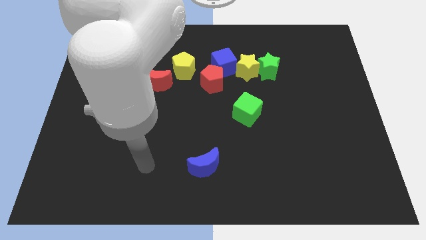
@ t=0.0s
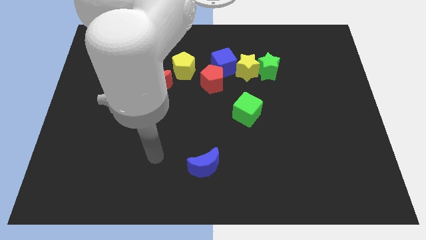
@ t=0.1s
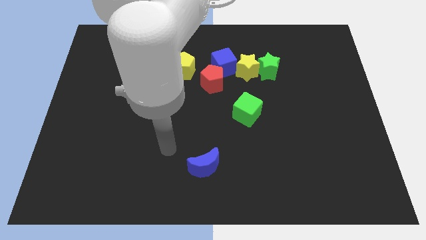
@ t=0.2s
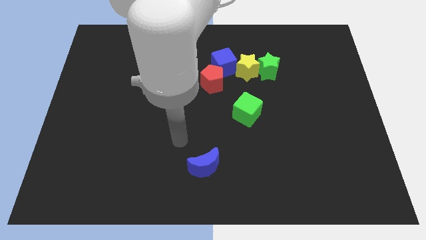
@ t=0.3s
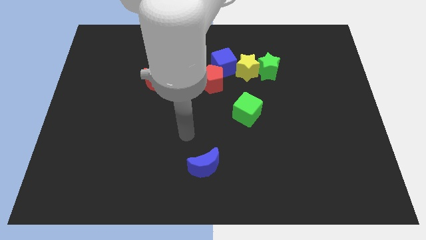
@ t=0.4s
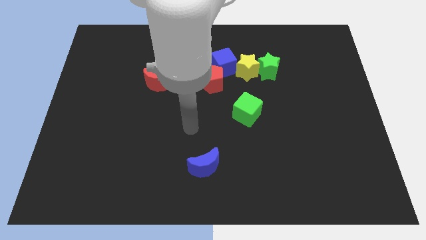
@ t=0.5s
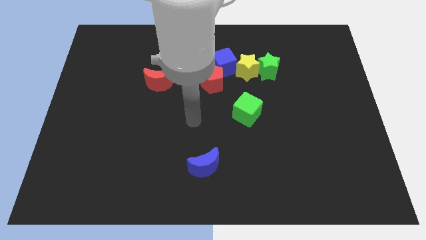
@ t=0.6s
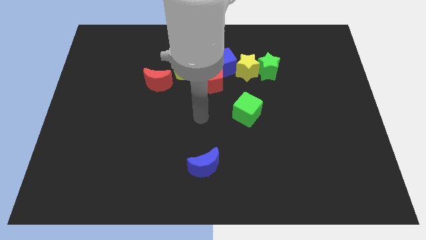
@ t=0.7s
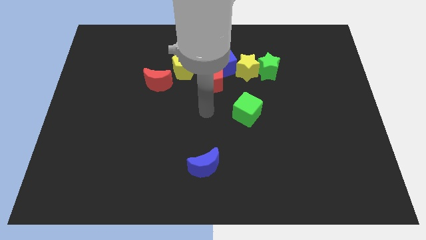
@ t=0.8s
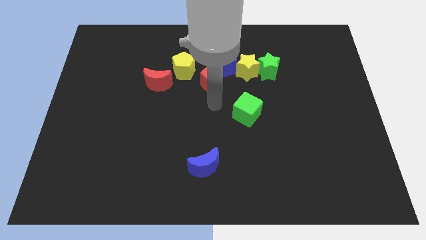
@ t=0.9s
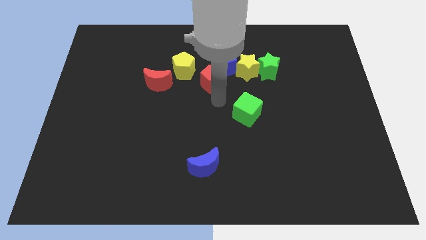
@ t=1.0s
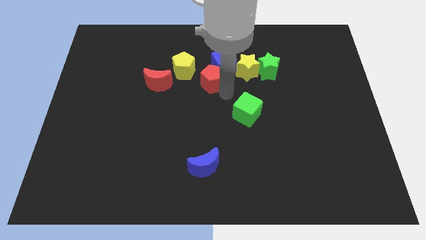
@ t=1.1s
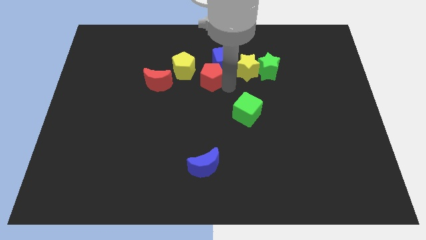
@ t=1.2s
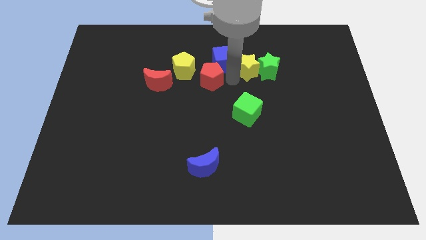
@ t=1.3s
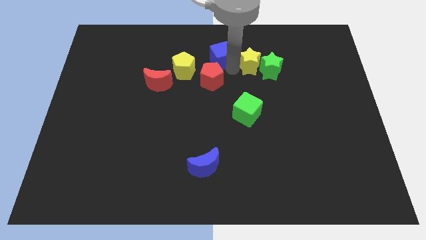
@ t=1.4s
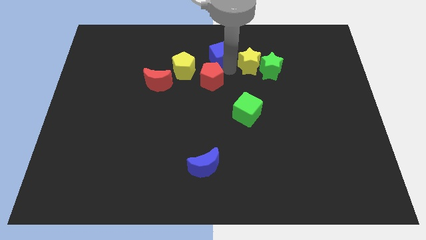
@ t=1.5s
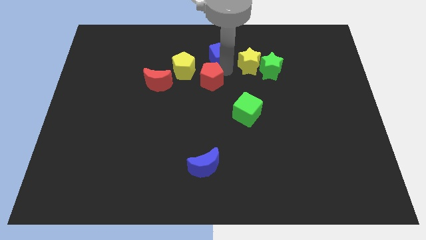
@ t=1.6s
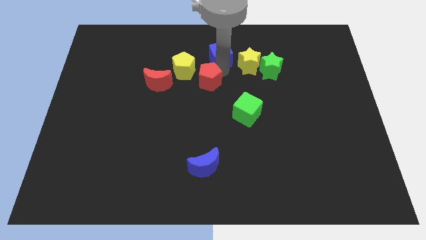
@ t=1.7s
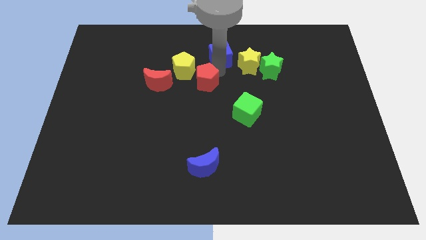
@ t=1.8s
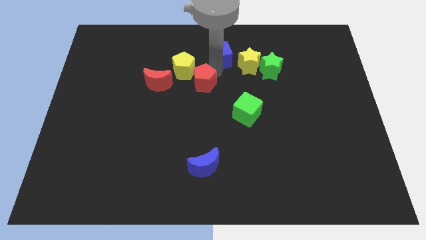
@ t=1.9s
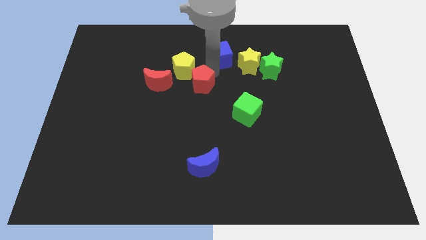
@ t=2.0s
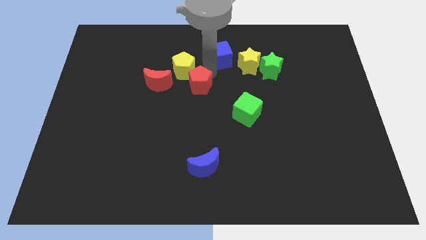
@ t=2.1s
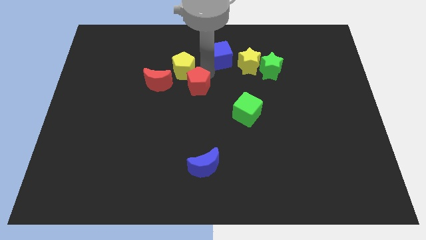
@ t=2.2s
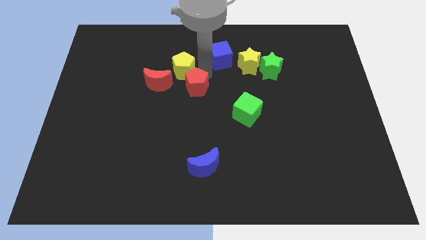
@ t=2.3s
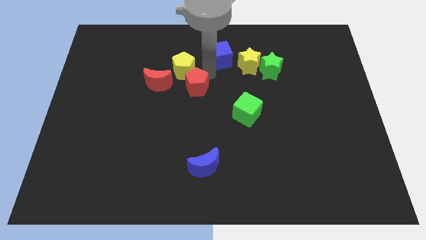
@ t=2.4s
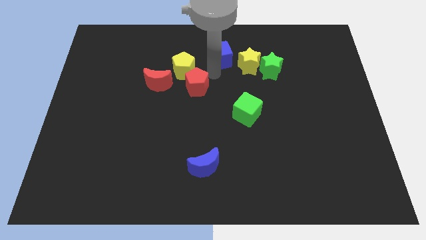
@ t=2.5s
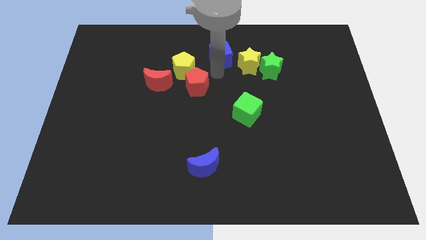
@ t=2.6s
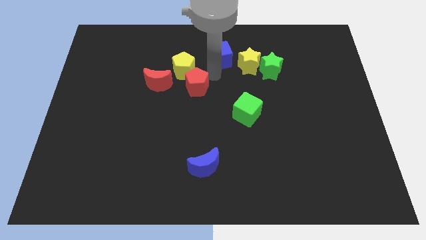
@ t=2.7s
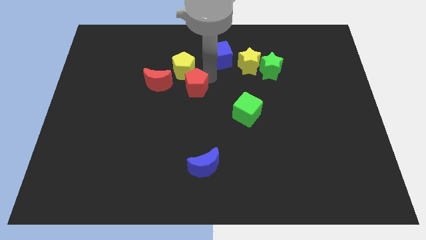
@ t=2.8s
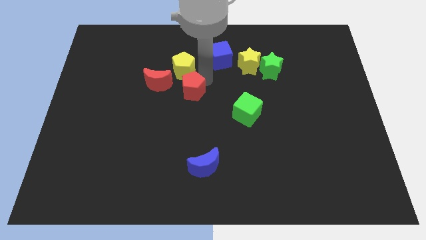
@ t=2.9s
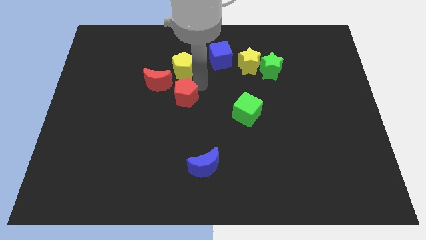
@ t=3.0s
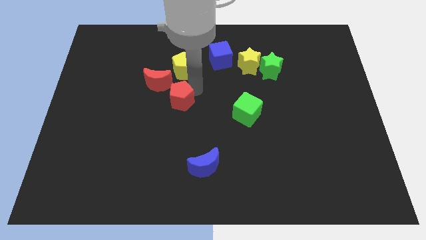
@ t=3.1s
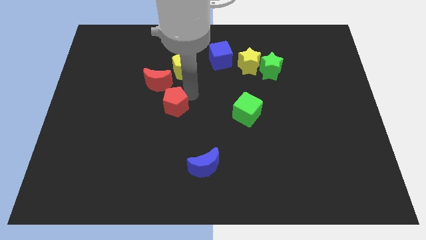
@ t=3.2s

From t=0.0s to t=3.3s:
slightly move the red pentagon to the left

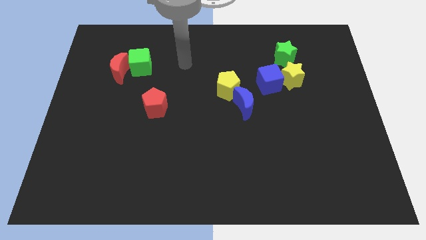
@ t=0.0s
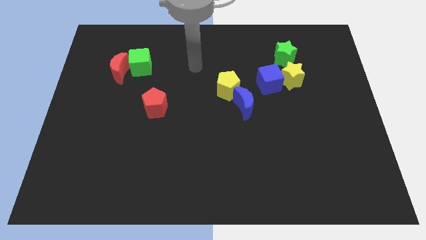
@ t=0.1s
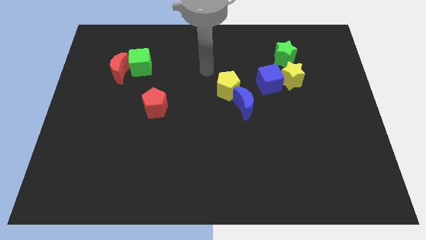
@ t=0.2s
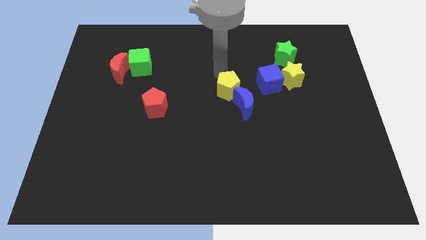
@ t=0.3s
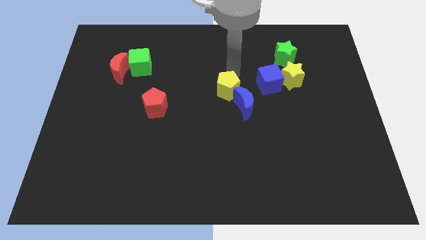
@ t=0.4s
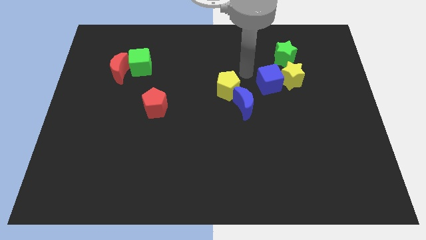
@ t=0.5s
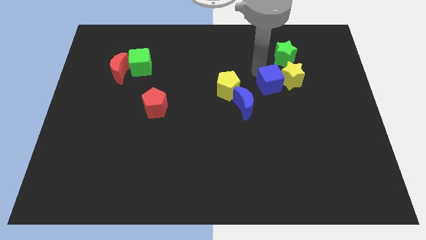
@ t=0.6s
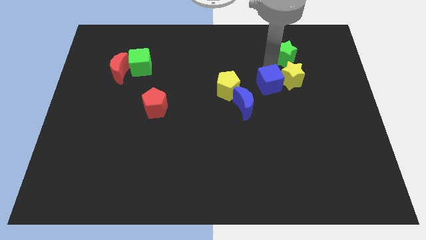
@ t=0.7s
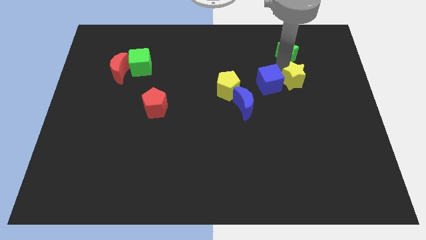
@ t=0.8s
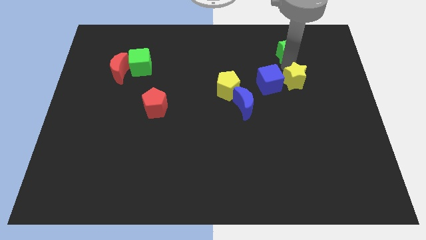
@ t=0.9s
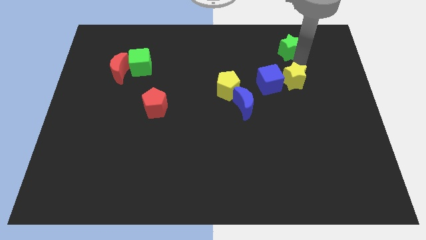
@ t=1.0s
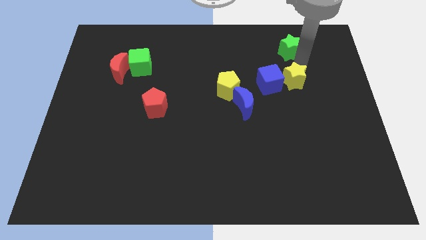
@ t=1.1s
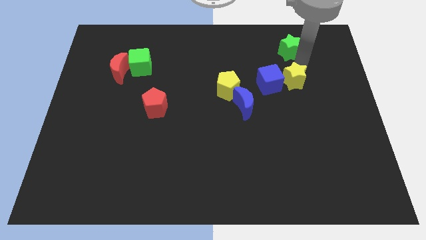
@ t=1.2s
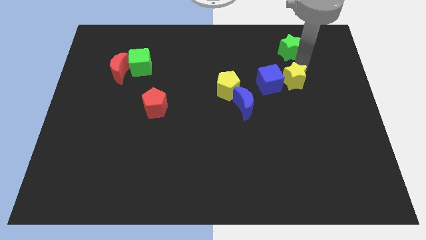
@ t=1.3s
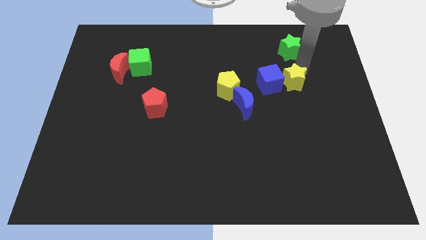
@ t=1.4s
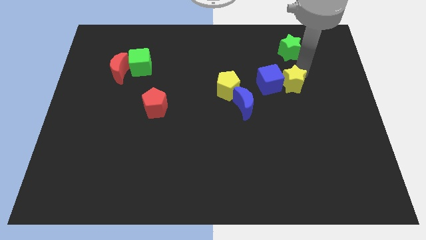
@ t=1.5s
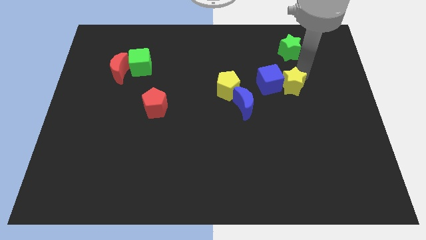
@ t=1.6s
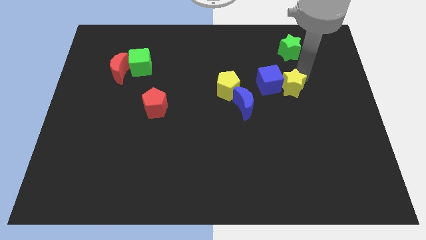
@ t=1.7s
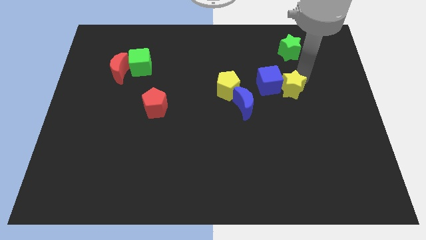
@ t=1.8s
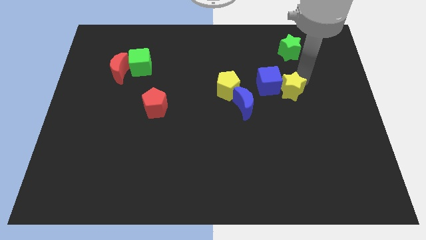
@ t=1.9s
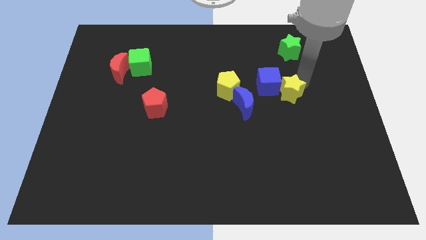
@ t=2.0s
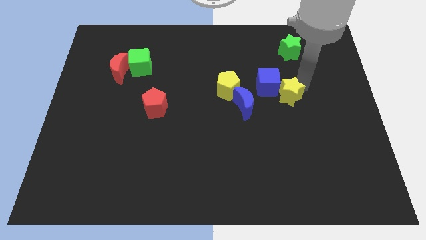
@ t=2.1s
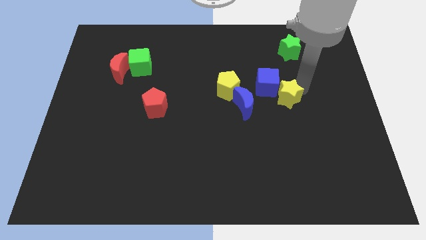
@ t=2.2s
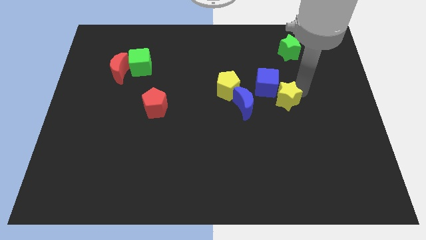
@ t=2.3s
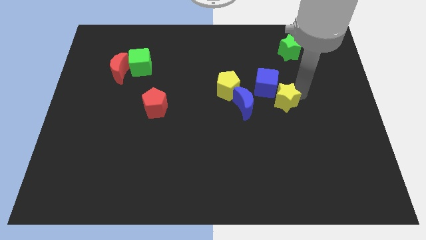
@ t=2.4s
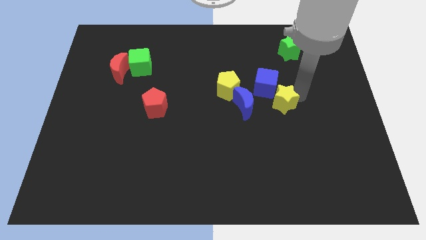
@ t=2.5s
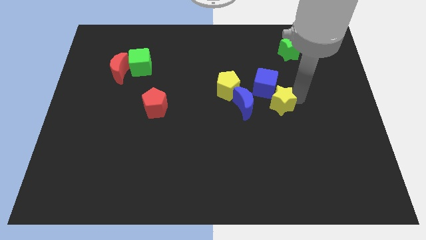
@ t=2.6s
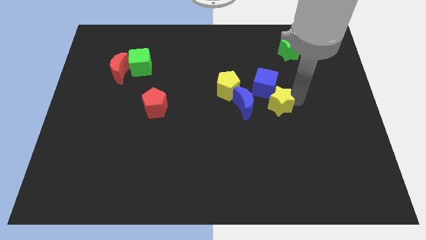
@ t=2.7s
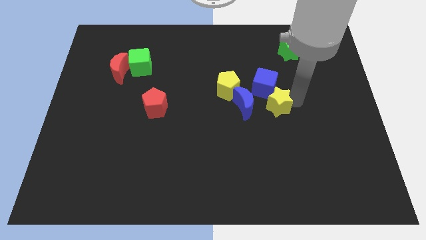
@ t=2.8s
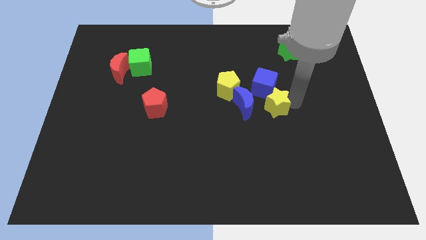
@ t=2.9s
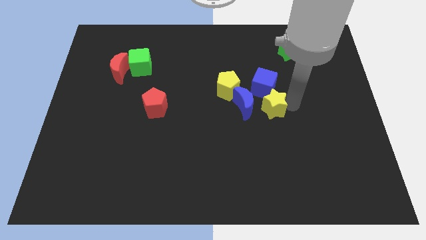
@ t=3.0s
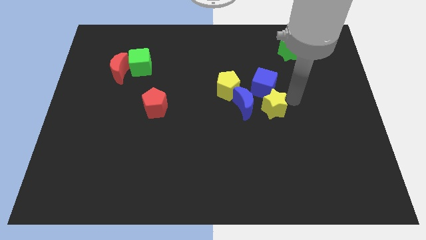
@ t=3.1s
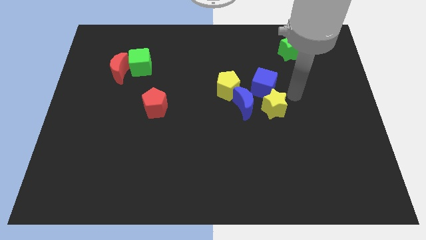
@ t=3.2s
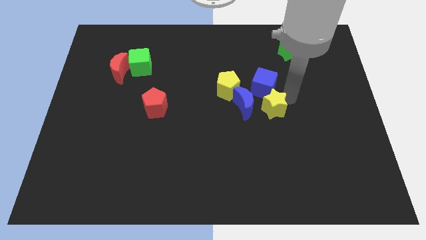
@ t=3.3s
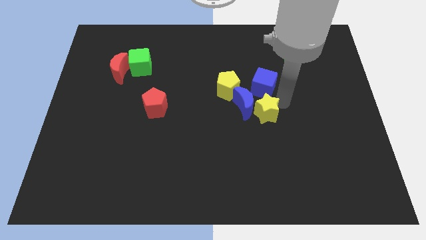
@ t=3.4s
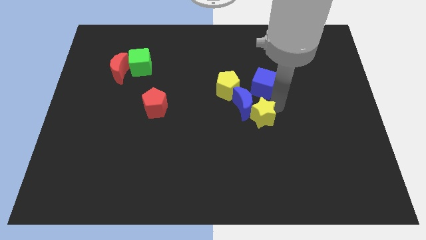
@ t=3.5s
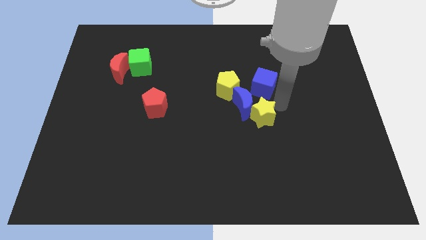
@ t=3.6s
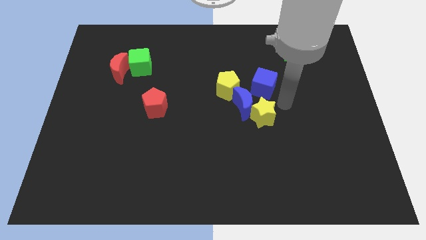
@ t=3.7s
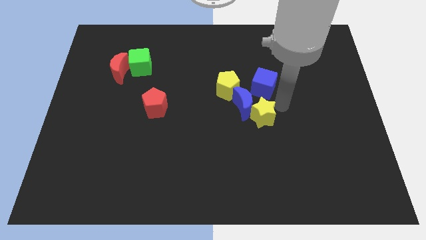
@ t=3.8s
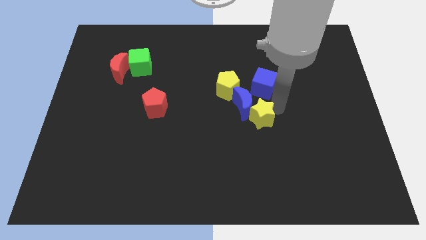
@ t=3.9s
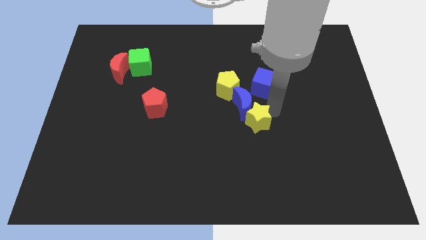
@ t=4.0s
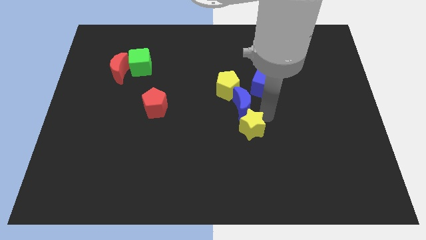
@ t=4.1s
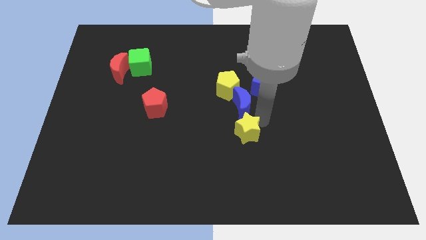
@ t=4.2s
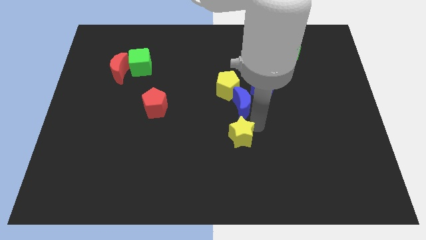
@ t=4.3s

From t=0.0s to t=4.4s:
move the yellow star downwards and left

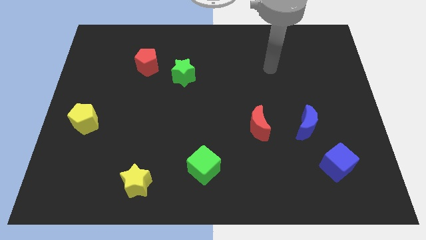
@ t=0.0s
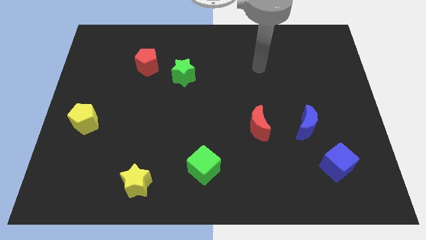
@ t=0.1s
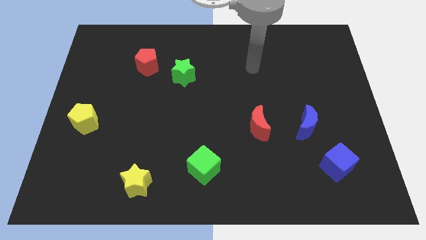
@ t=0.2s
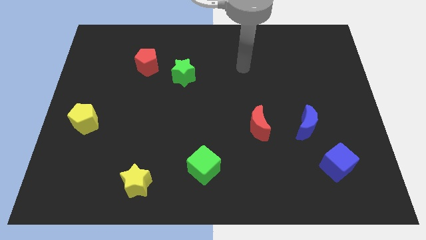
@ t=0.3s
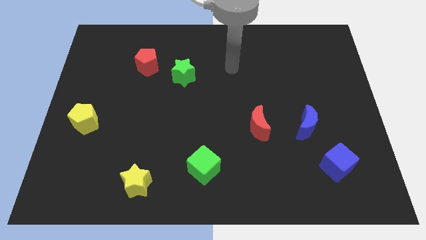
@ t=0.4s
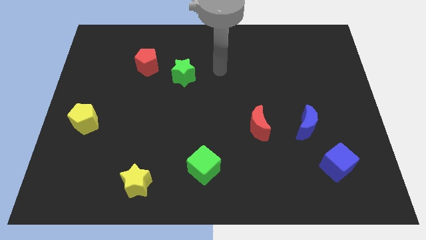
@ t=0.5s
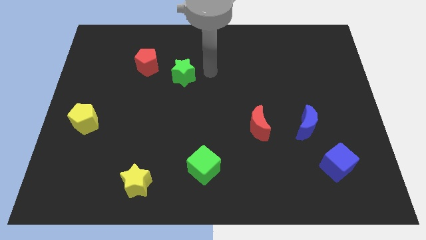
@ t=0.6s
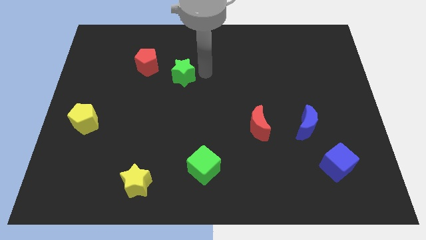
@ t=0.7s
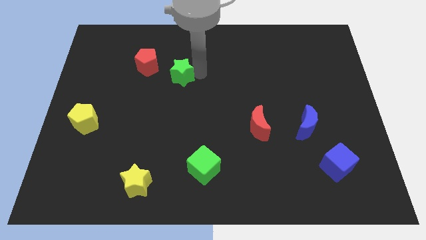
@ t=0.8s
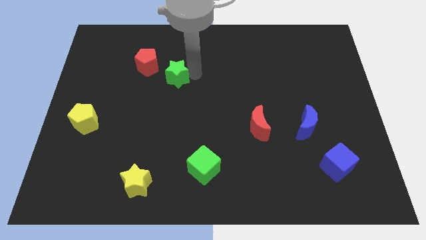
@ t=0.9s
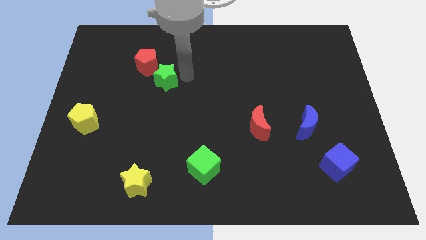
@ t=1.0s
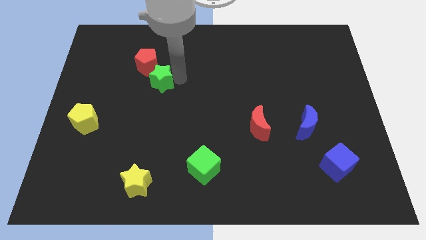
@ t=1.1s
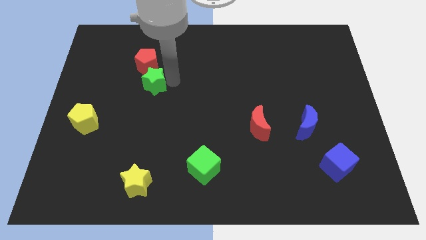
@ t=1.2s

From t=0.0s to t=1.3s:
slide the green star a little bit to the left
